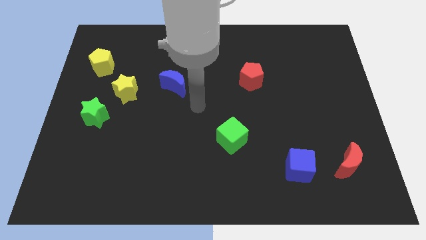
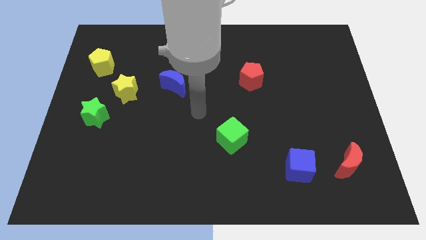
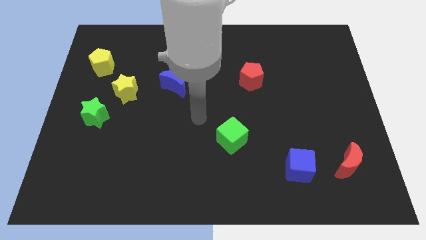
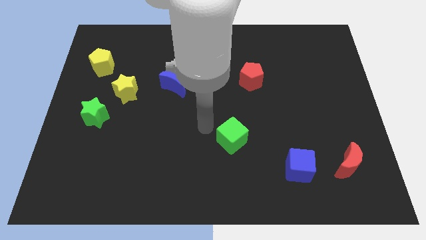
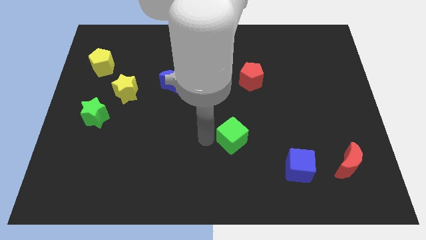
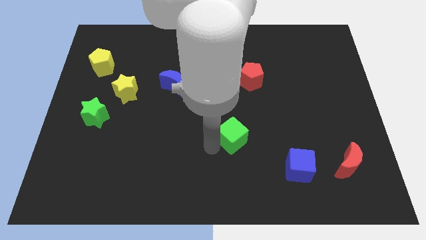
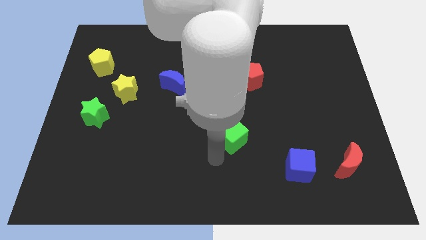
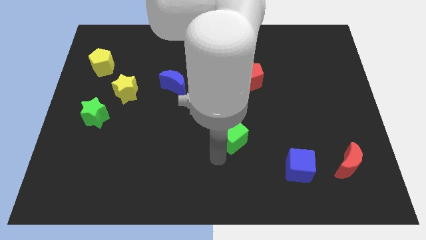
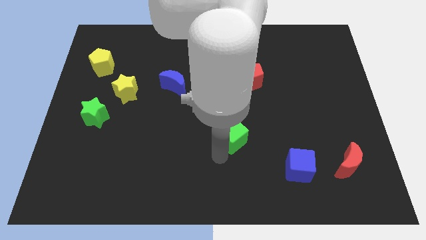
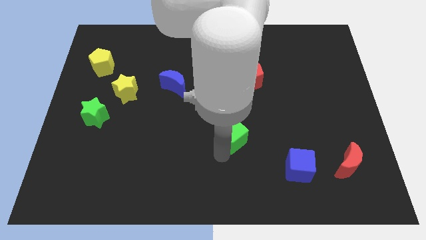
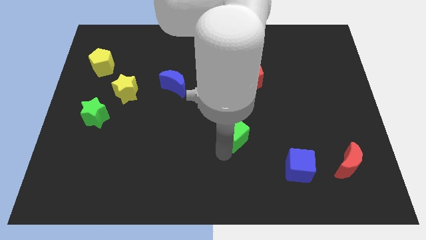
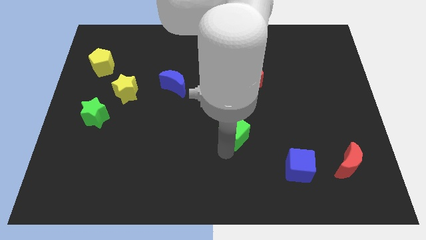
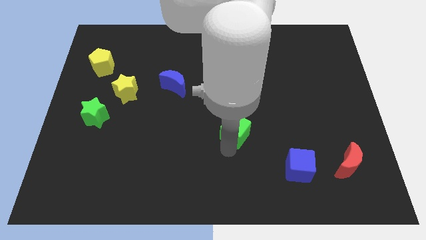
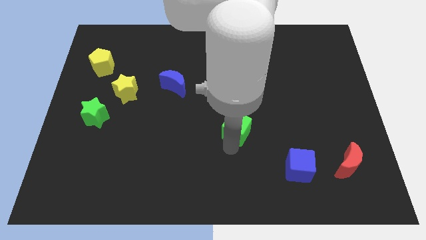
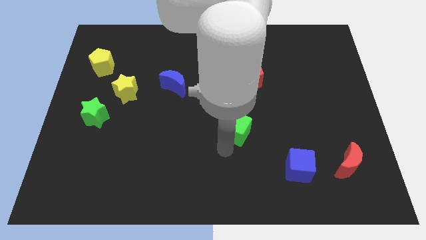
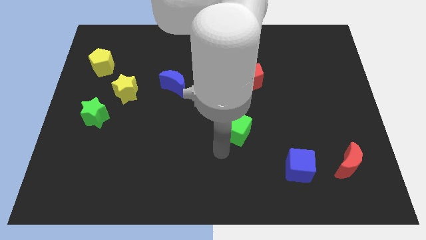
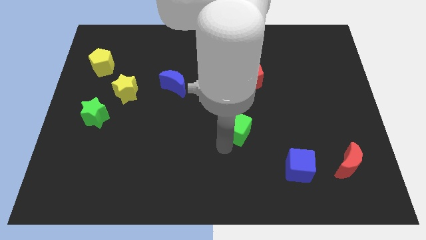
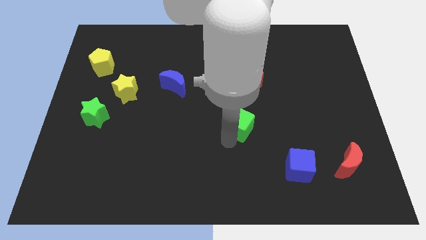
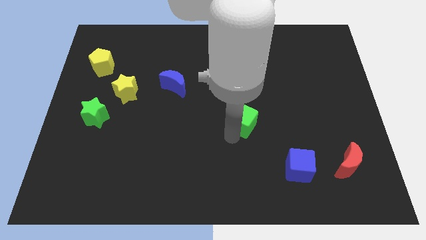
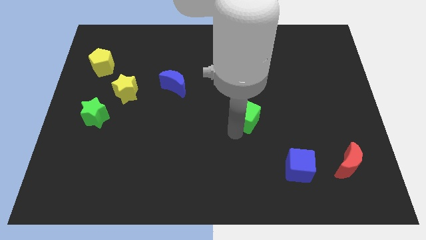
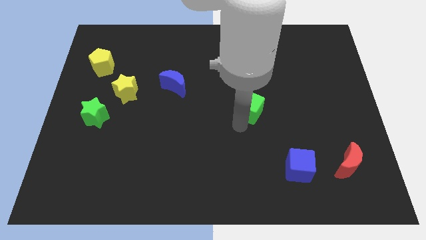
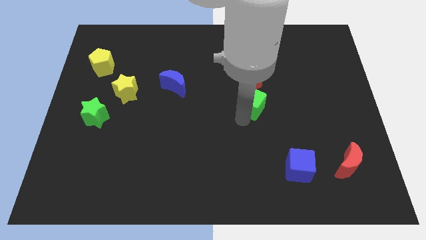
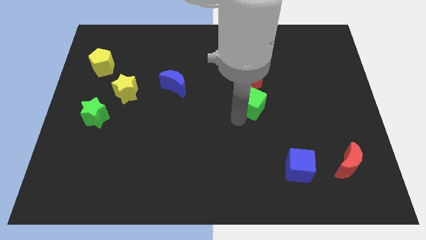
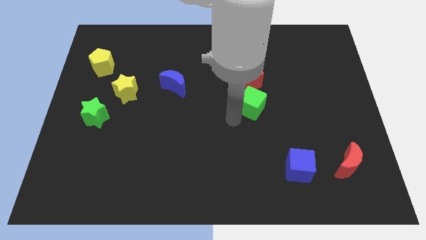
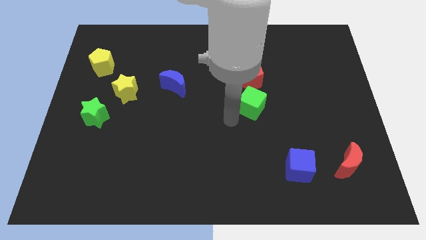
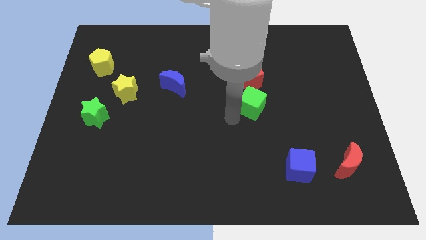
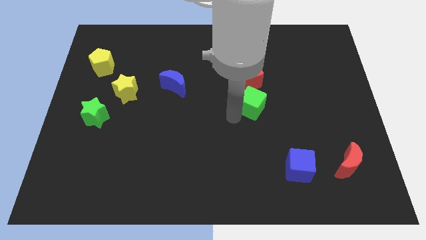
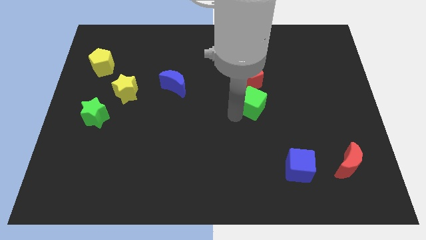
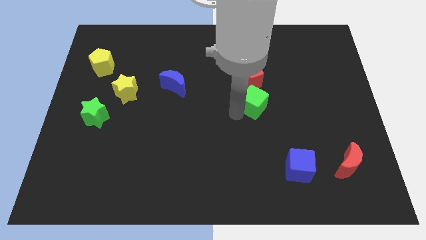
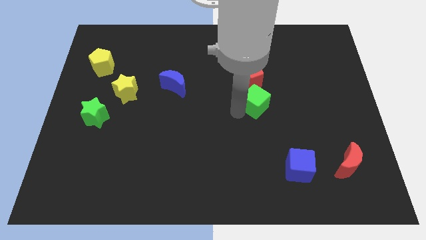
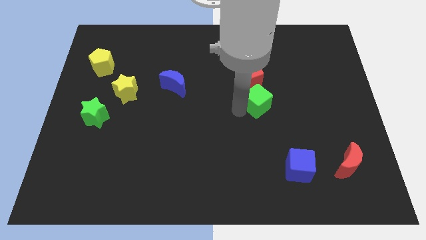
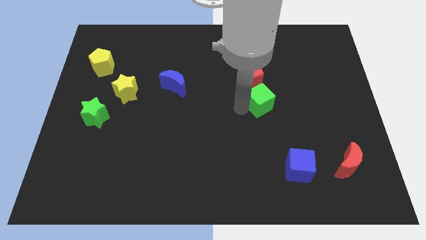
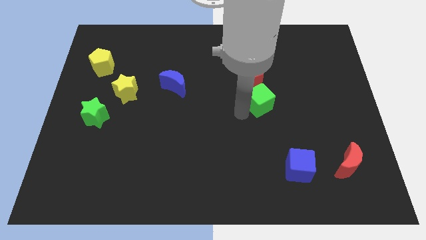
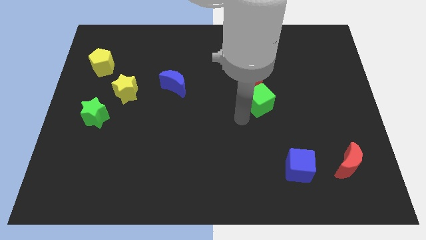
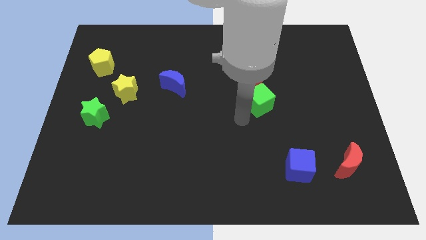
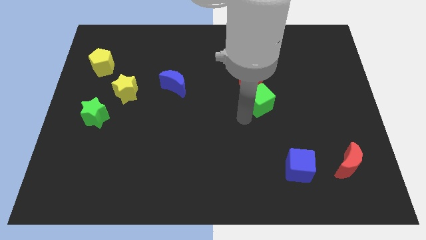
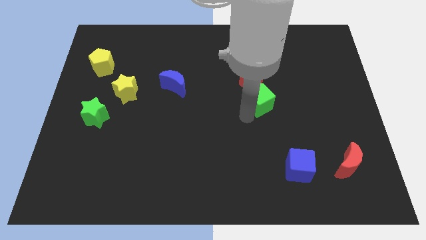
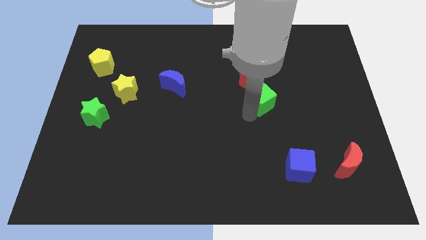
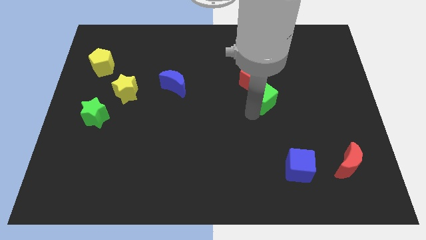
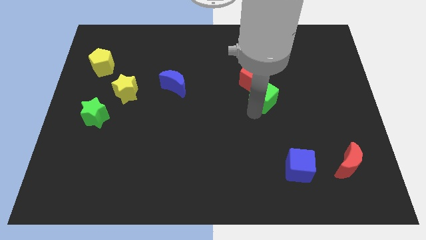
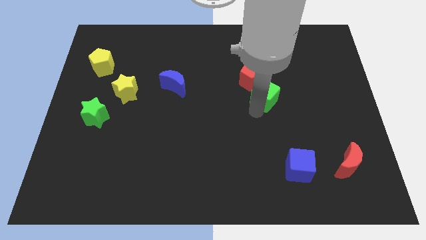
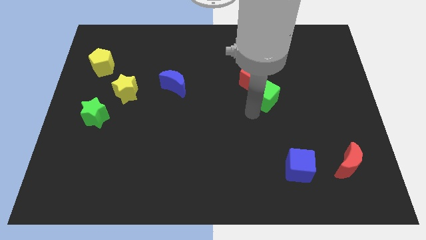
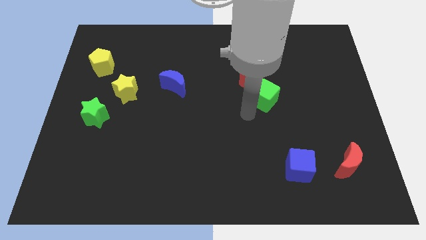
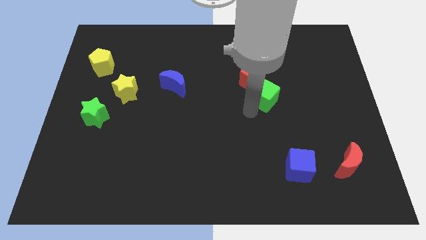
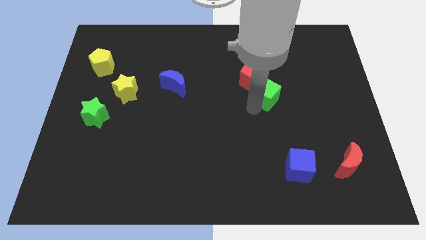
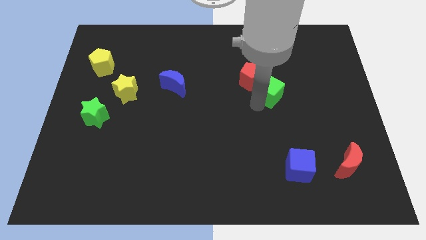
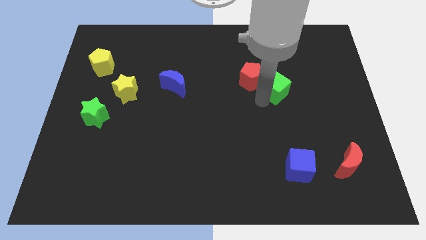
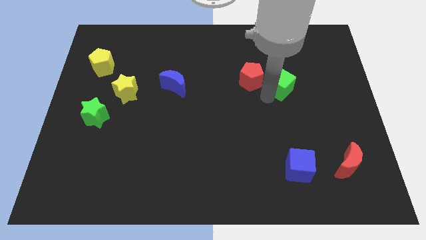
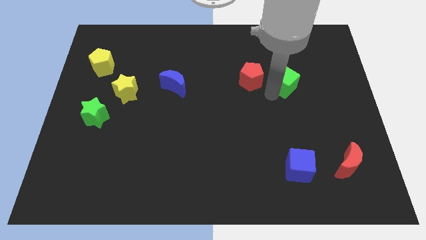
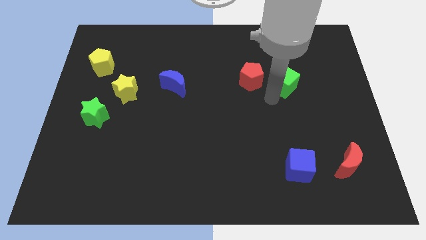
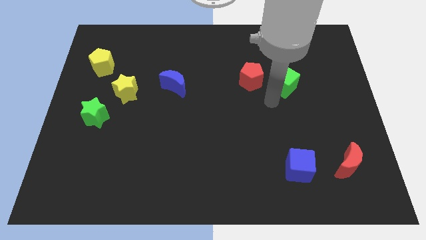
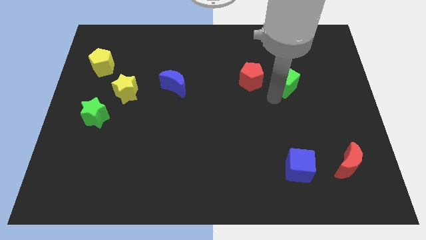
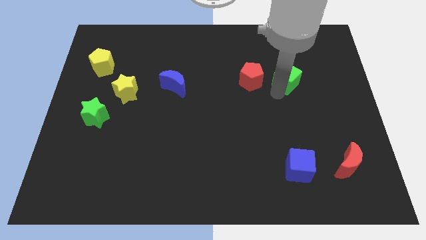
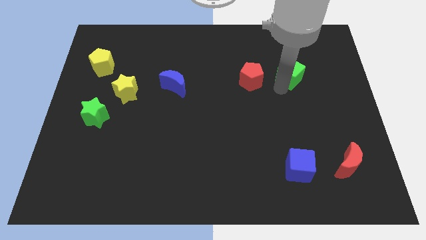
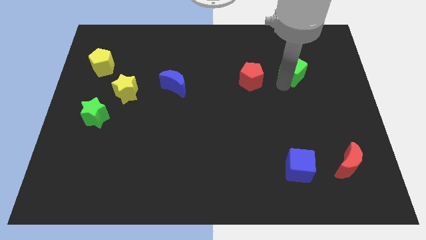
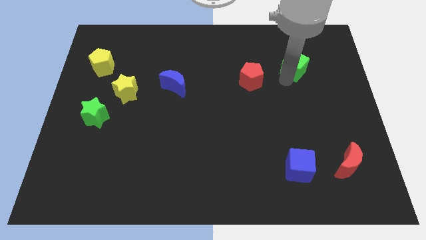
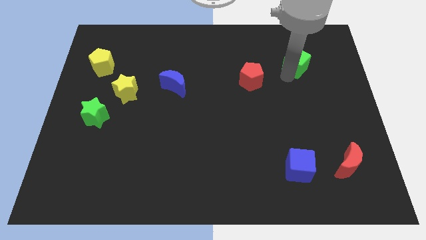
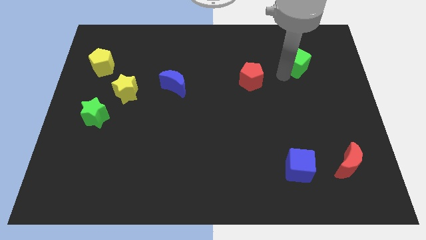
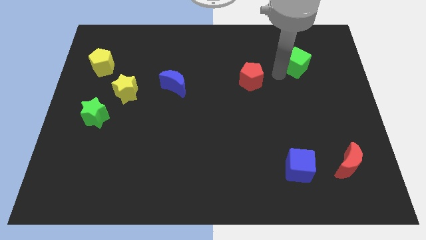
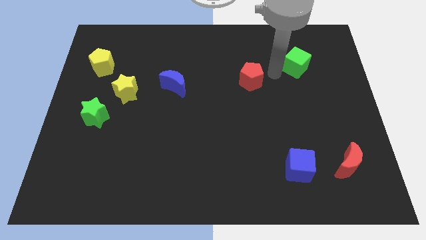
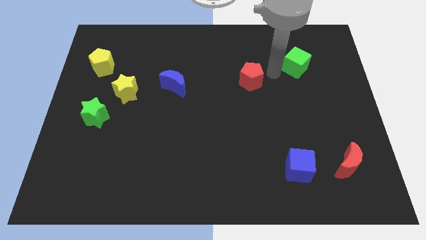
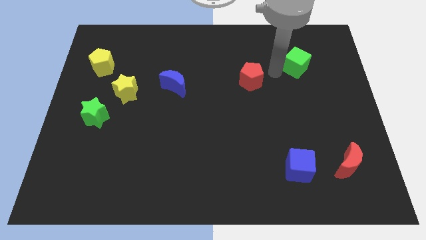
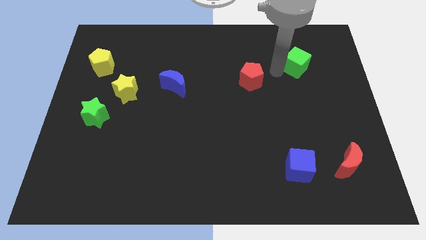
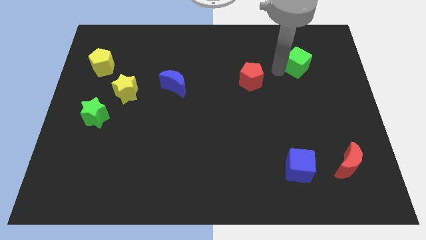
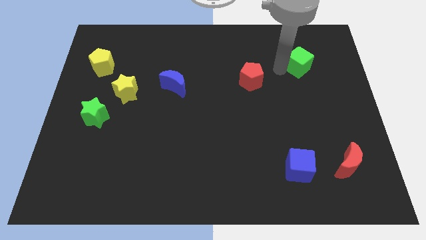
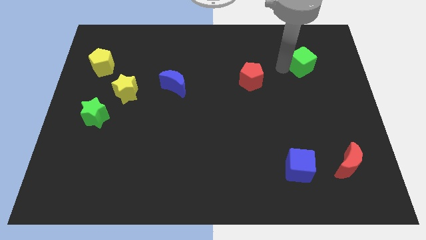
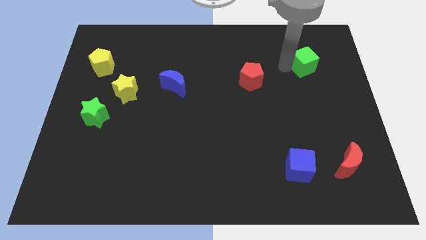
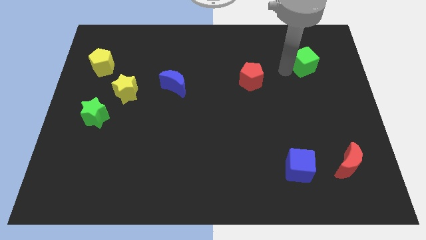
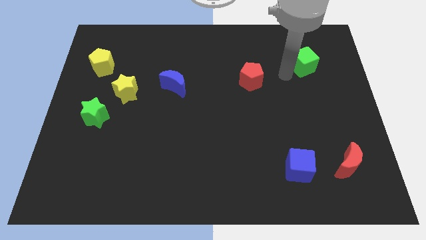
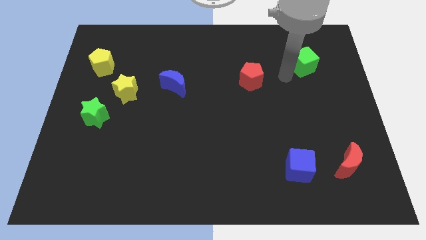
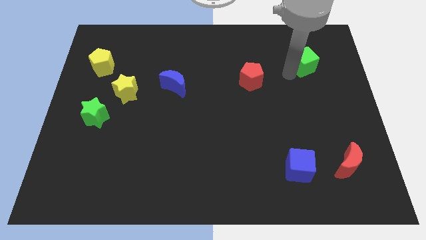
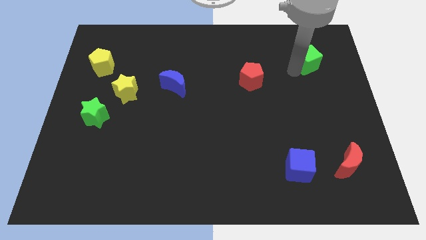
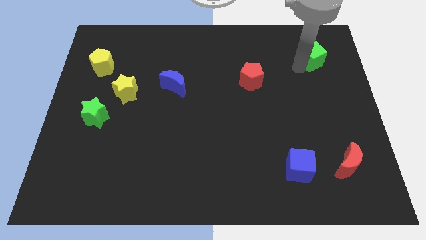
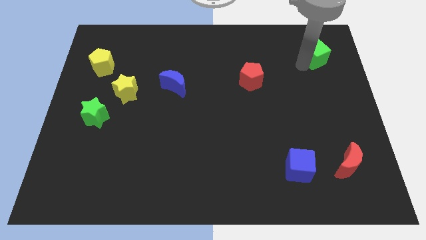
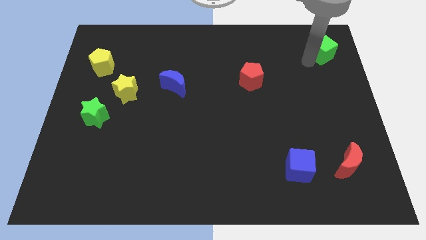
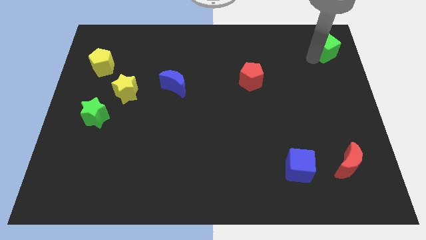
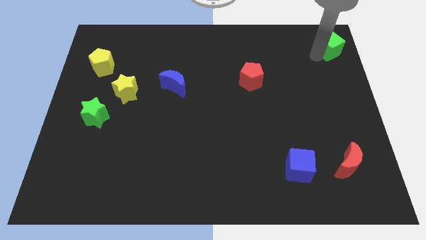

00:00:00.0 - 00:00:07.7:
put the green cube to the top right corner
